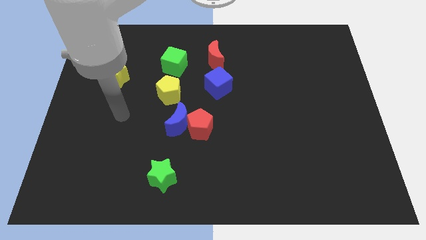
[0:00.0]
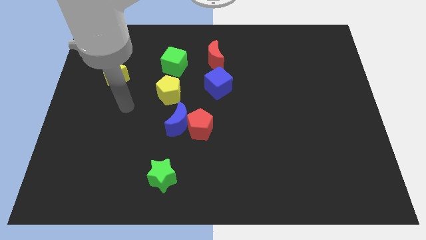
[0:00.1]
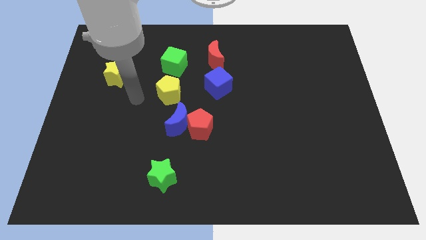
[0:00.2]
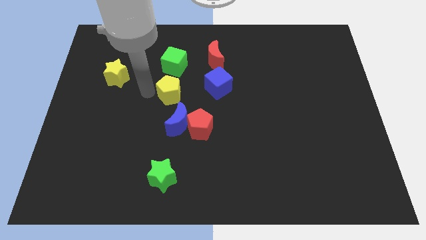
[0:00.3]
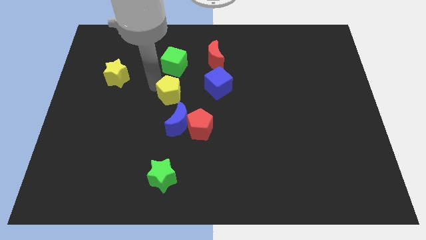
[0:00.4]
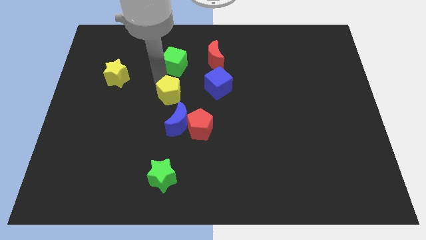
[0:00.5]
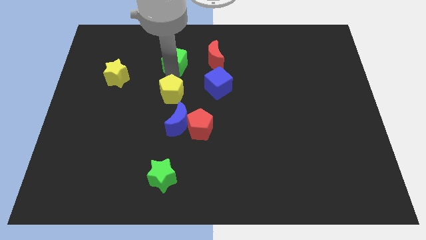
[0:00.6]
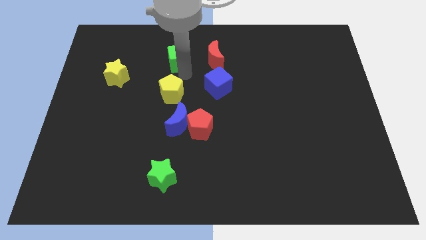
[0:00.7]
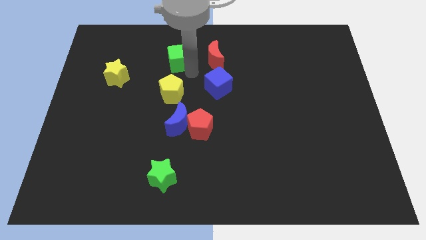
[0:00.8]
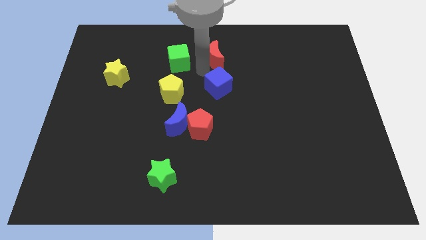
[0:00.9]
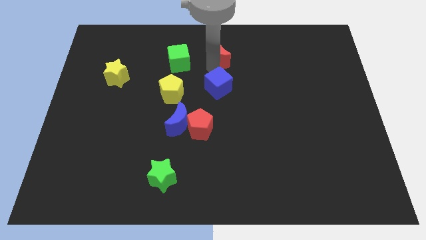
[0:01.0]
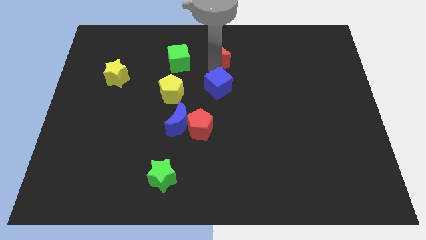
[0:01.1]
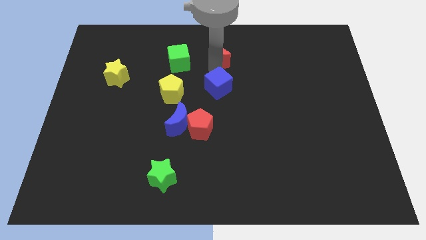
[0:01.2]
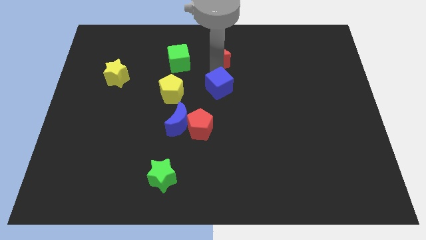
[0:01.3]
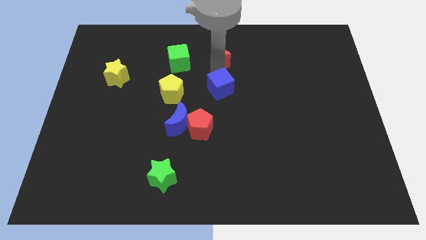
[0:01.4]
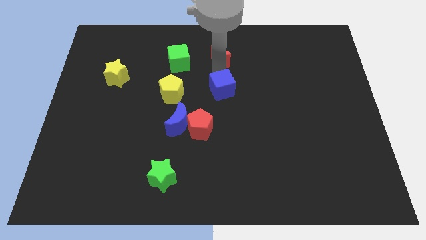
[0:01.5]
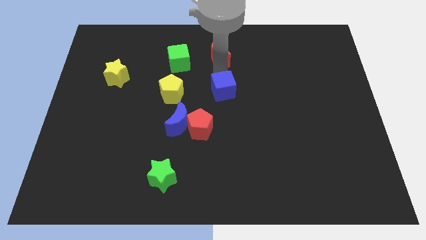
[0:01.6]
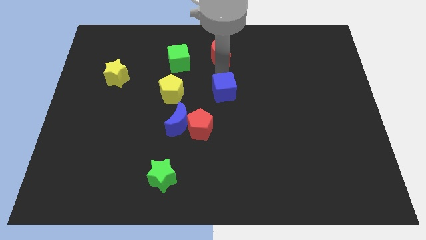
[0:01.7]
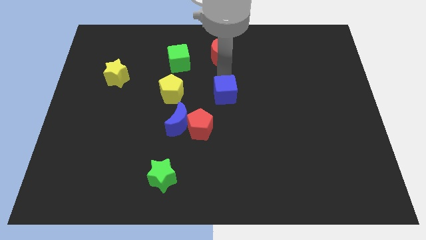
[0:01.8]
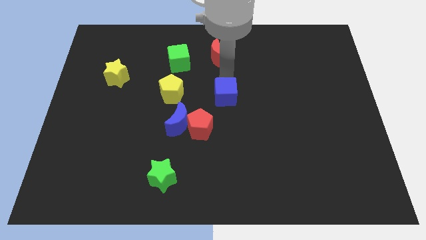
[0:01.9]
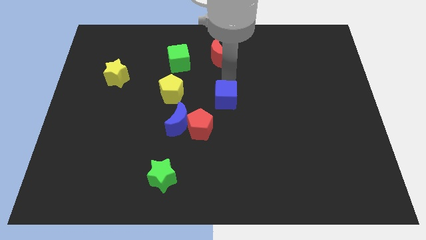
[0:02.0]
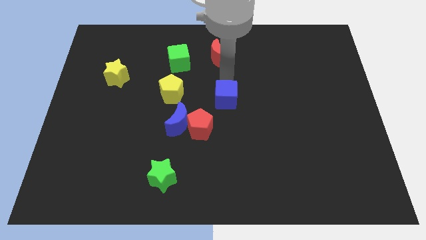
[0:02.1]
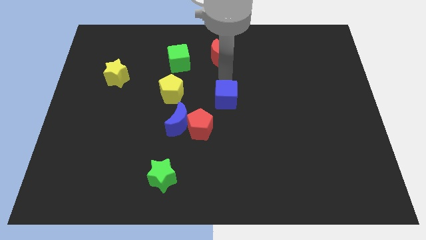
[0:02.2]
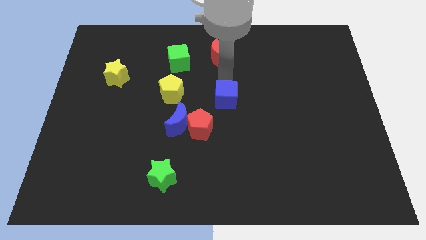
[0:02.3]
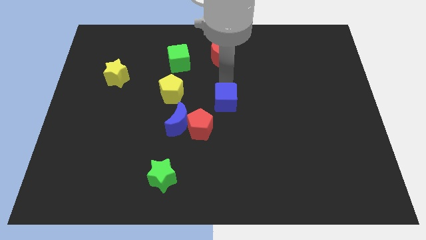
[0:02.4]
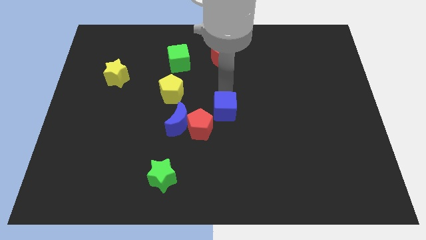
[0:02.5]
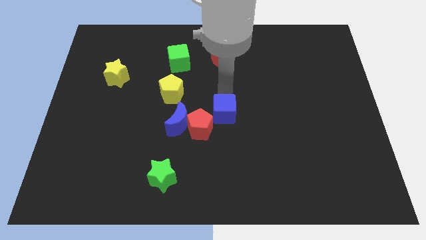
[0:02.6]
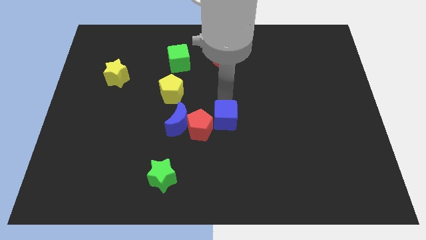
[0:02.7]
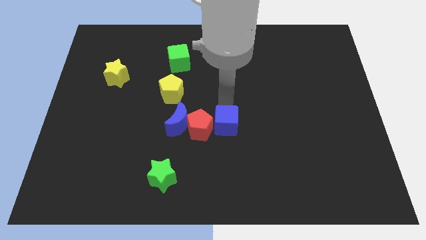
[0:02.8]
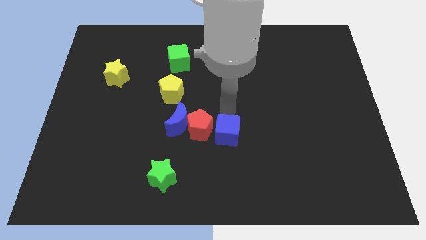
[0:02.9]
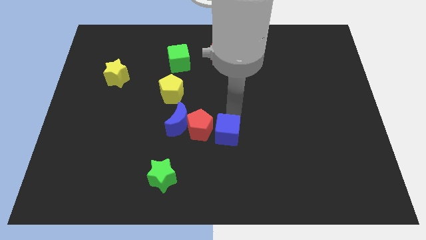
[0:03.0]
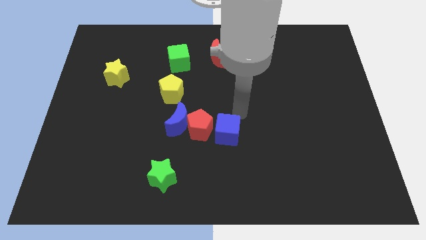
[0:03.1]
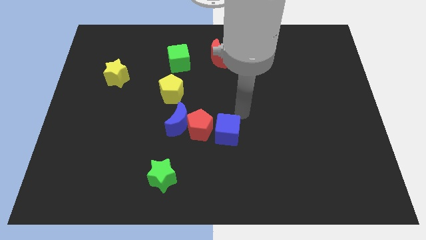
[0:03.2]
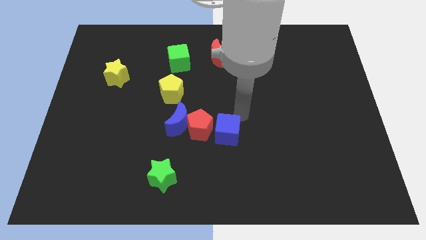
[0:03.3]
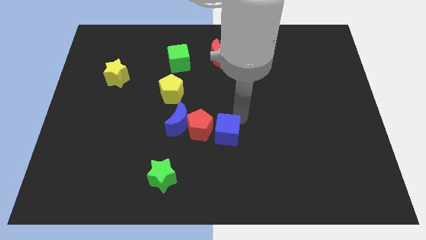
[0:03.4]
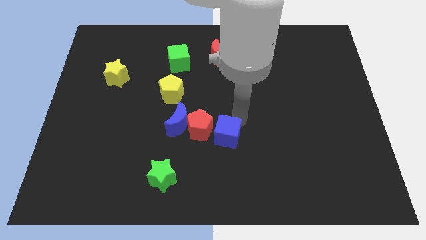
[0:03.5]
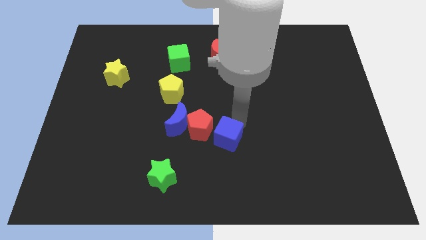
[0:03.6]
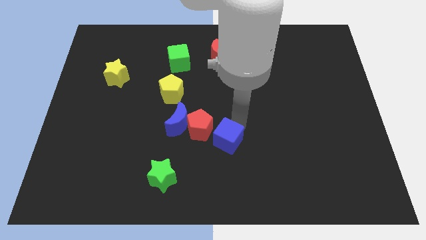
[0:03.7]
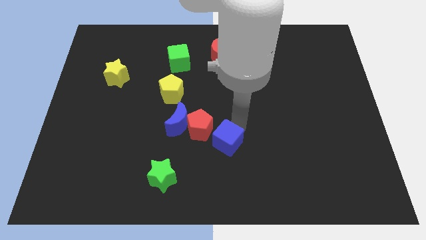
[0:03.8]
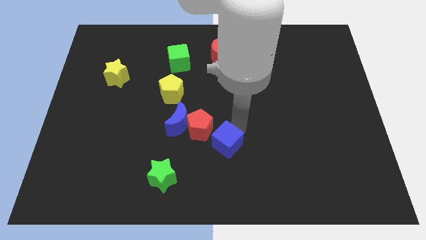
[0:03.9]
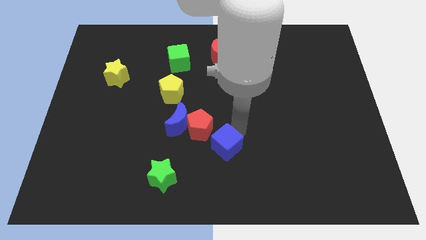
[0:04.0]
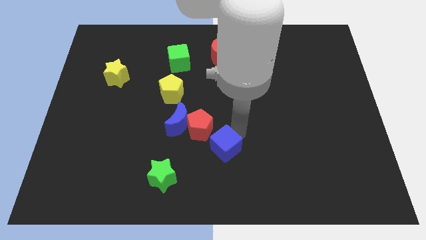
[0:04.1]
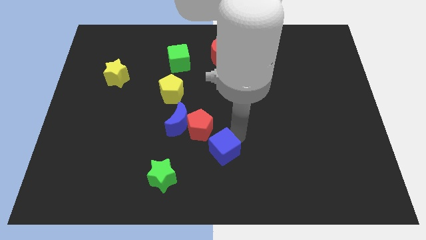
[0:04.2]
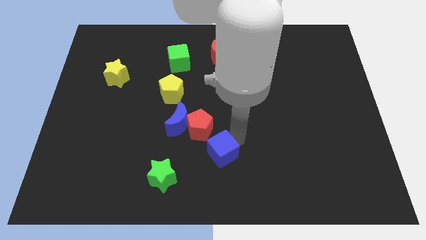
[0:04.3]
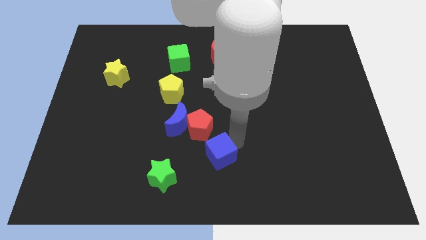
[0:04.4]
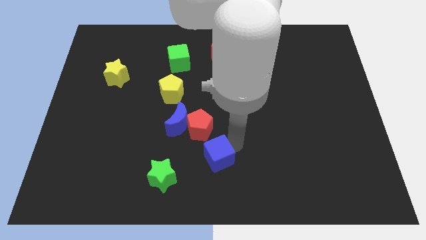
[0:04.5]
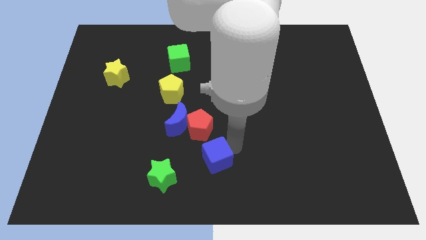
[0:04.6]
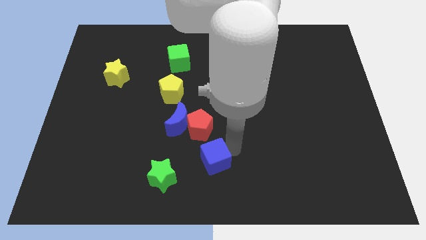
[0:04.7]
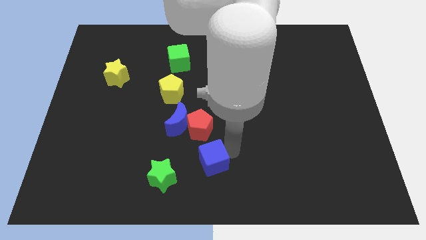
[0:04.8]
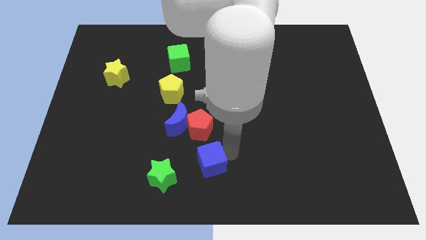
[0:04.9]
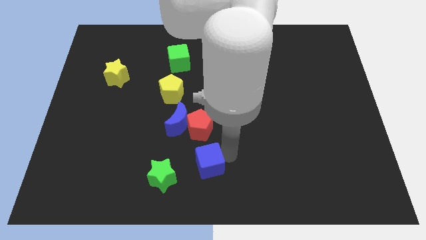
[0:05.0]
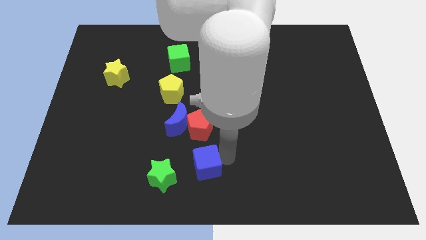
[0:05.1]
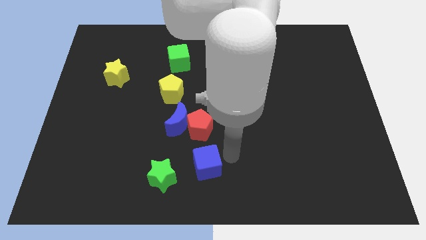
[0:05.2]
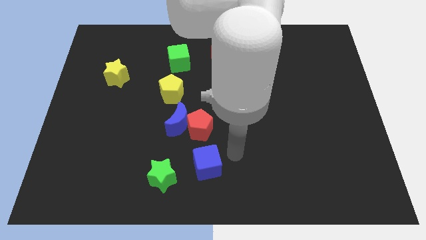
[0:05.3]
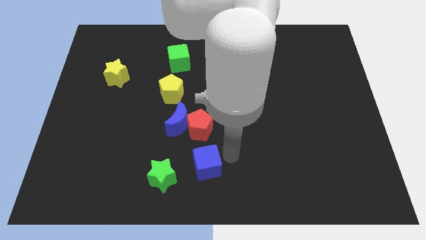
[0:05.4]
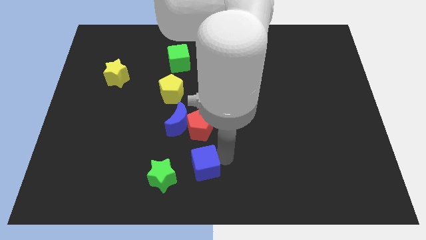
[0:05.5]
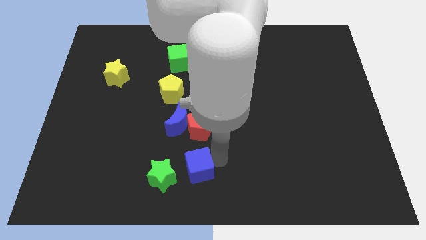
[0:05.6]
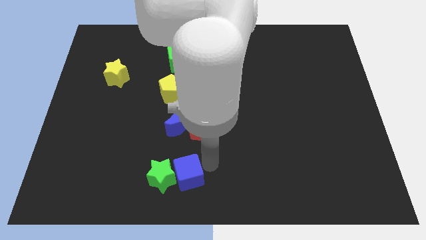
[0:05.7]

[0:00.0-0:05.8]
put the blue cube close to the green star

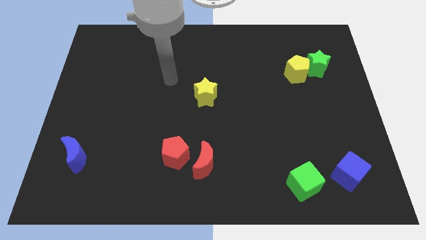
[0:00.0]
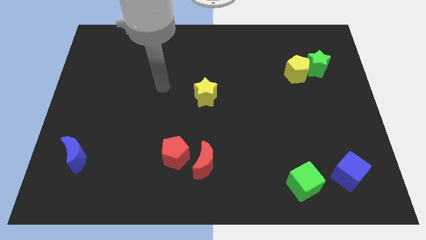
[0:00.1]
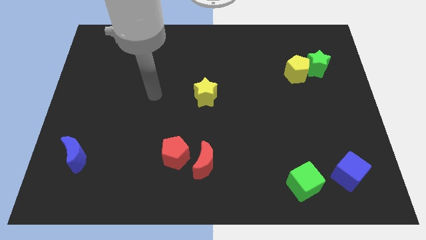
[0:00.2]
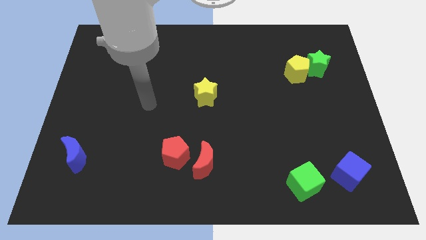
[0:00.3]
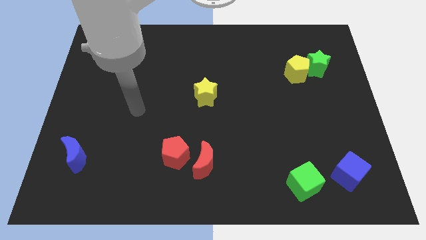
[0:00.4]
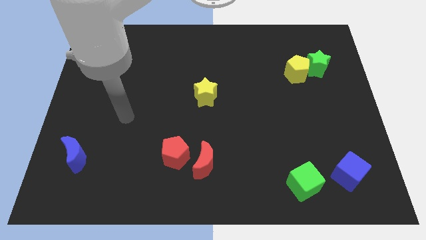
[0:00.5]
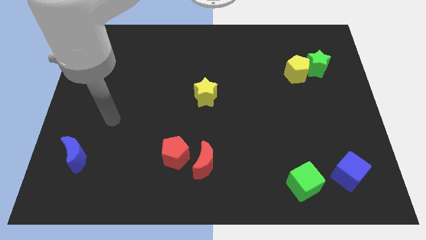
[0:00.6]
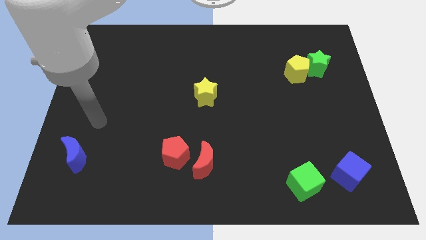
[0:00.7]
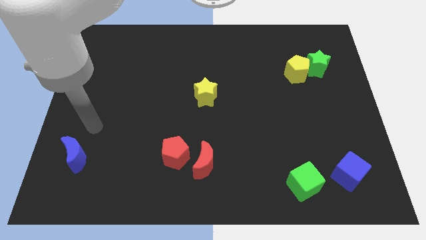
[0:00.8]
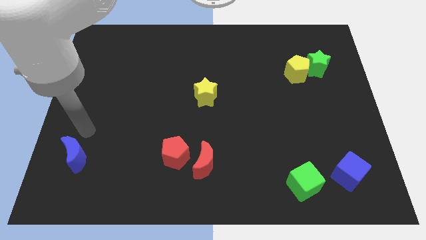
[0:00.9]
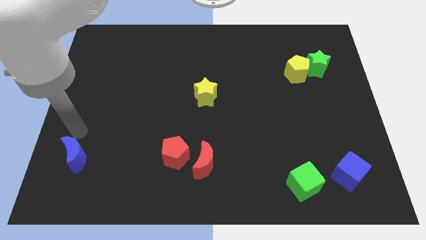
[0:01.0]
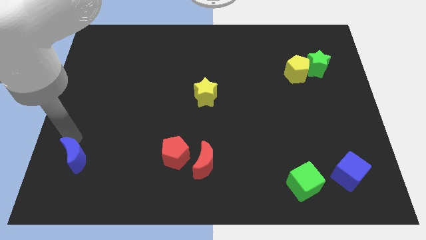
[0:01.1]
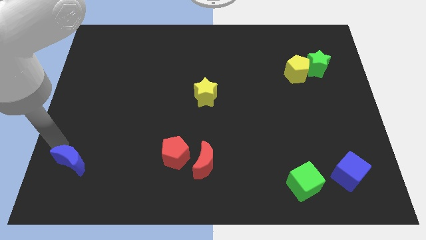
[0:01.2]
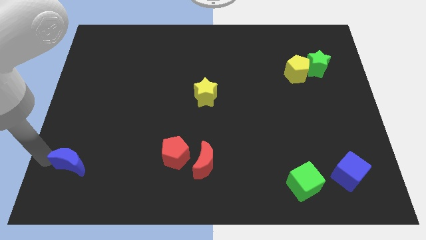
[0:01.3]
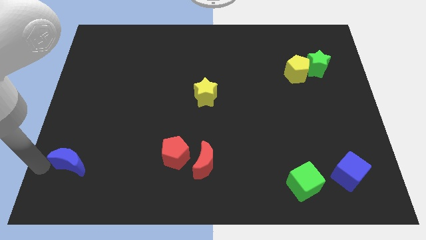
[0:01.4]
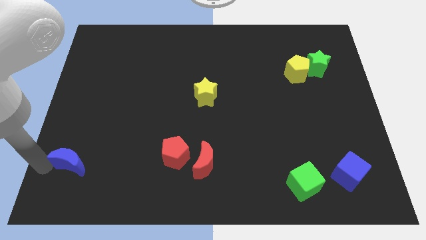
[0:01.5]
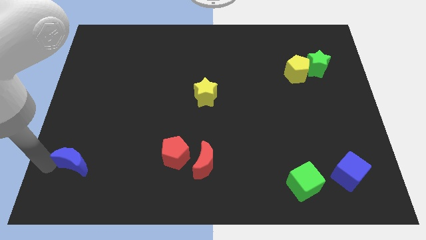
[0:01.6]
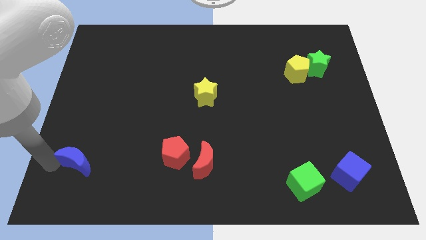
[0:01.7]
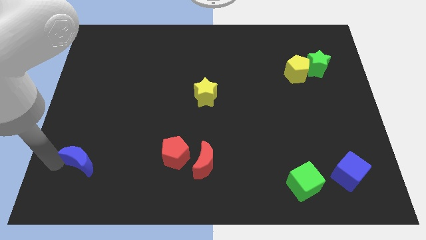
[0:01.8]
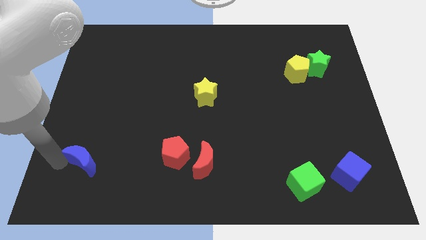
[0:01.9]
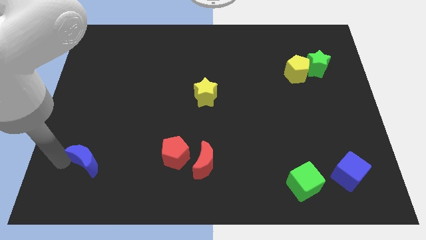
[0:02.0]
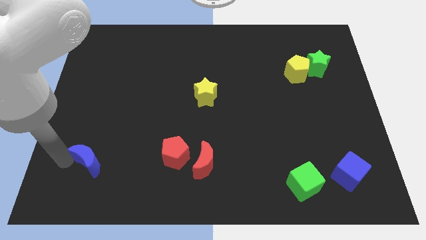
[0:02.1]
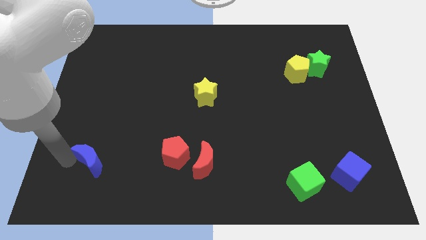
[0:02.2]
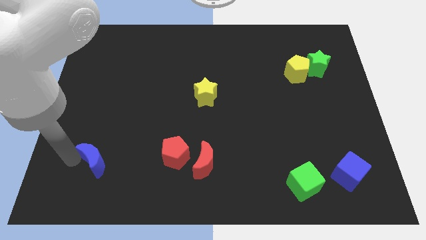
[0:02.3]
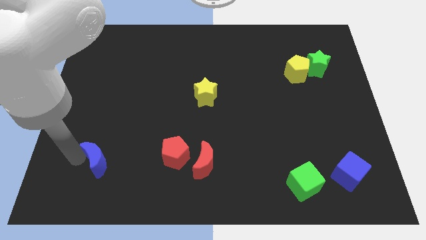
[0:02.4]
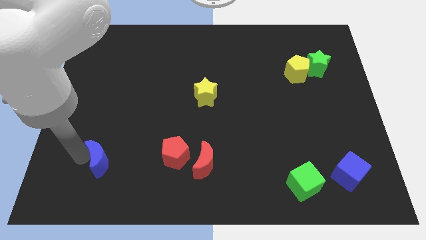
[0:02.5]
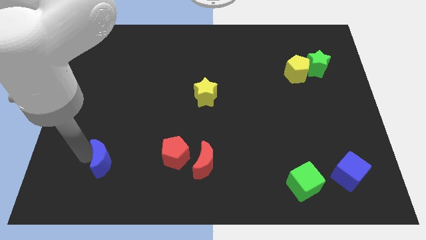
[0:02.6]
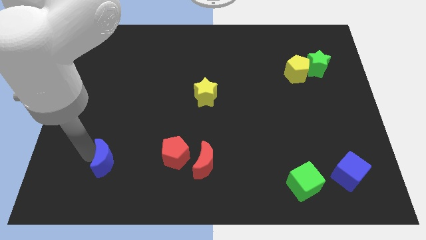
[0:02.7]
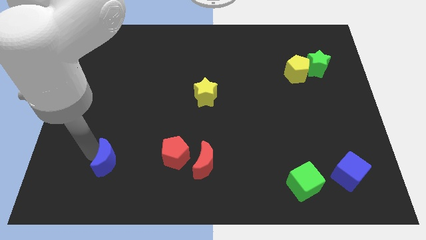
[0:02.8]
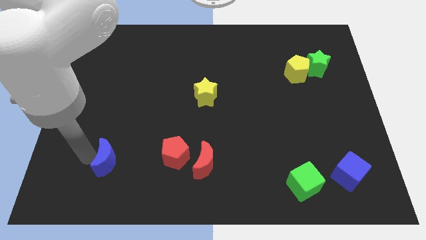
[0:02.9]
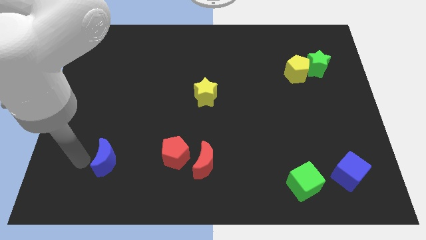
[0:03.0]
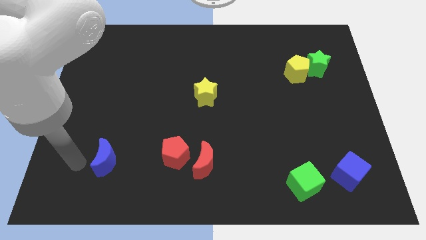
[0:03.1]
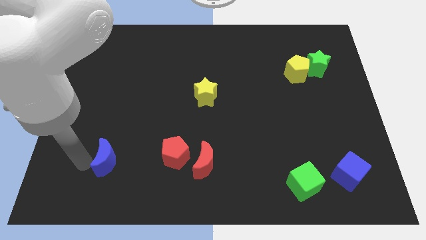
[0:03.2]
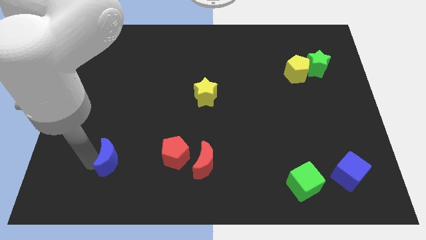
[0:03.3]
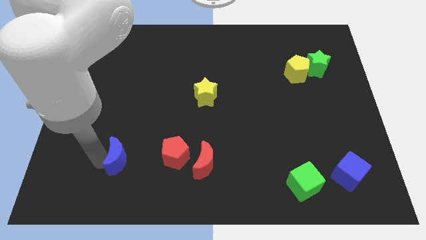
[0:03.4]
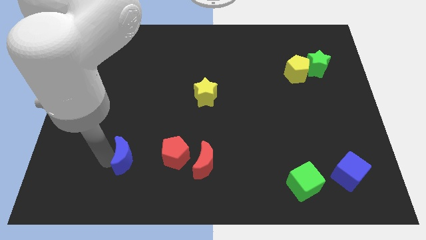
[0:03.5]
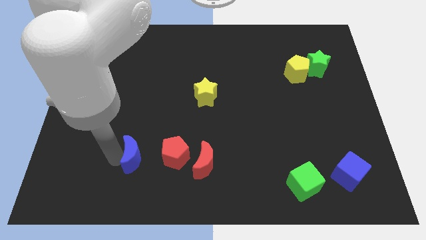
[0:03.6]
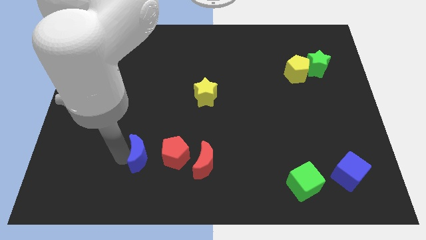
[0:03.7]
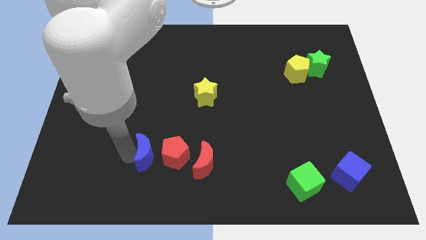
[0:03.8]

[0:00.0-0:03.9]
slide the blue moon to the red pentagon
